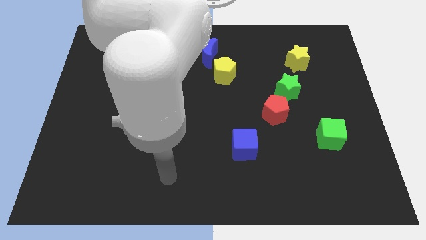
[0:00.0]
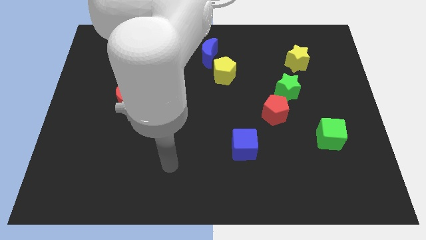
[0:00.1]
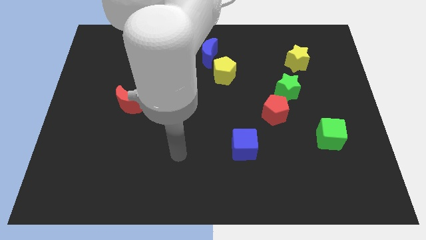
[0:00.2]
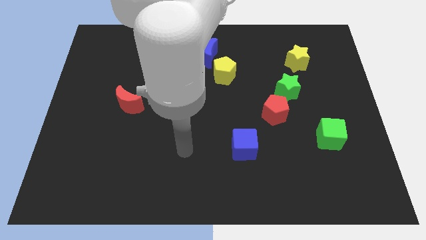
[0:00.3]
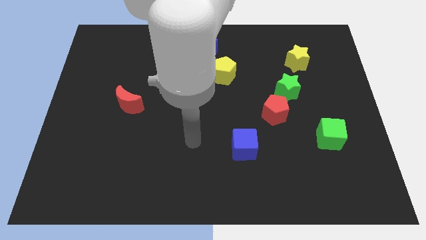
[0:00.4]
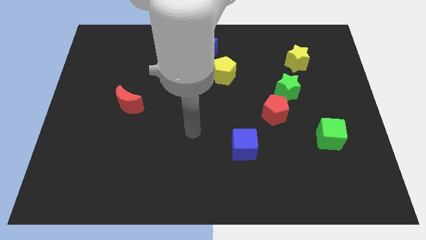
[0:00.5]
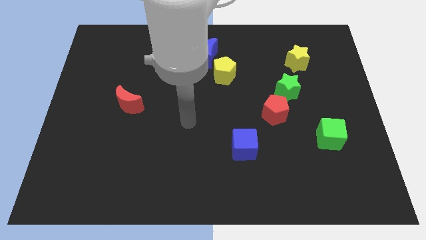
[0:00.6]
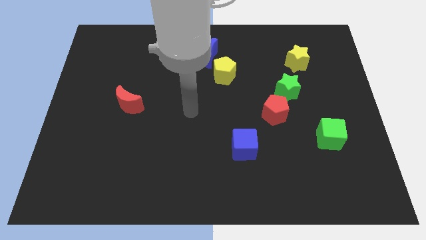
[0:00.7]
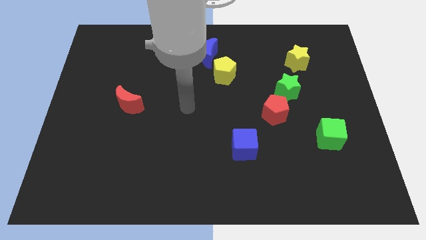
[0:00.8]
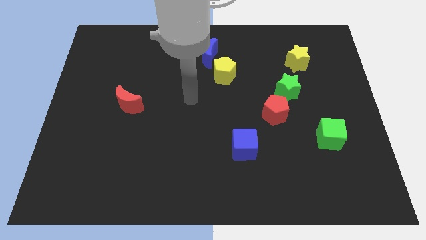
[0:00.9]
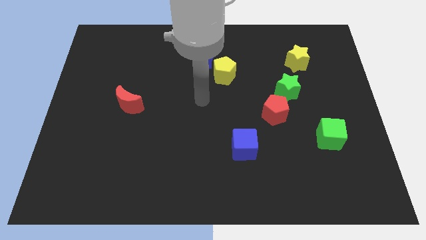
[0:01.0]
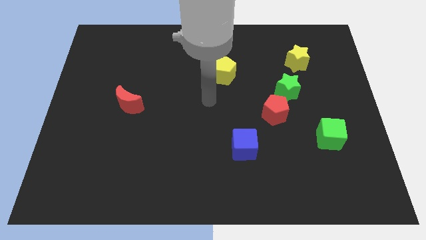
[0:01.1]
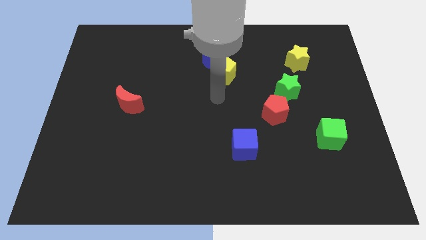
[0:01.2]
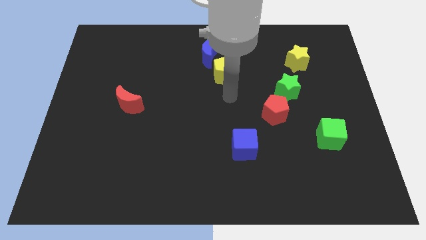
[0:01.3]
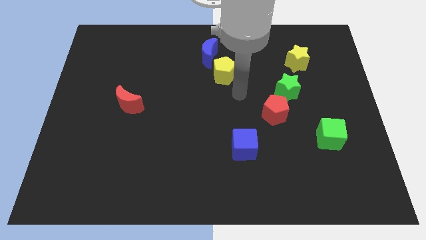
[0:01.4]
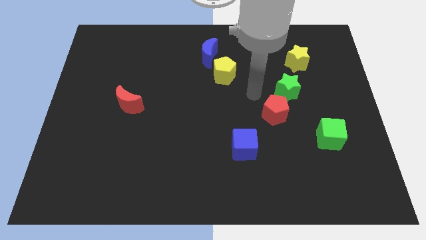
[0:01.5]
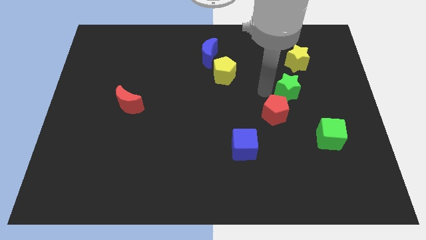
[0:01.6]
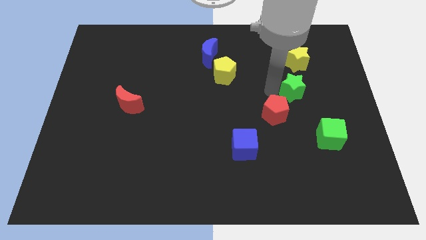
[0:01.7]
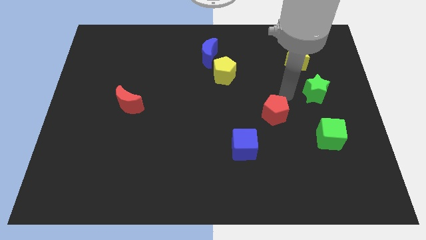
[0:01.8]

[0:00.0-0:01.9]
pull the red pentagon apart from the green star

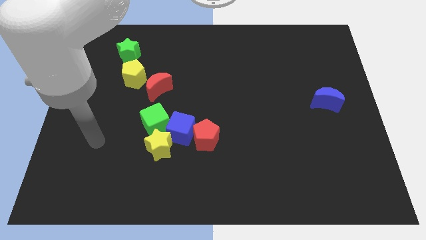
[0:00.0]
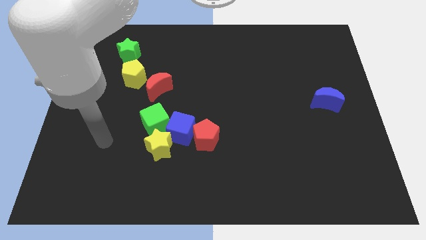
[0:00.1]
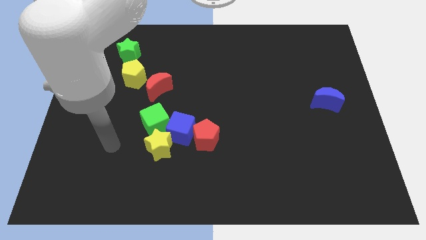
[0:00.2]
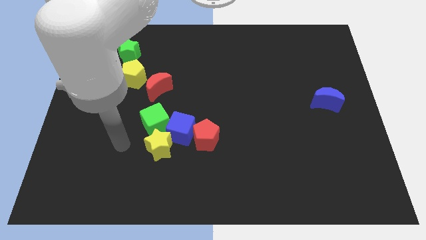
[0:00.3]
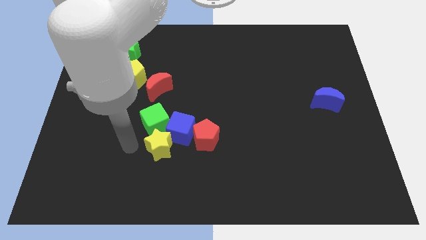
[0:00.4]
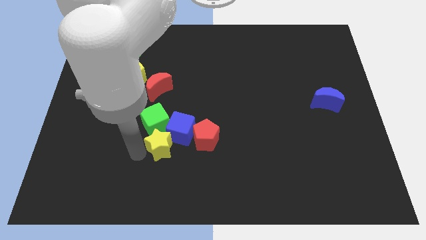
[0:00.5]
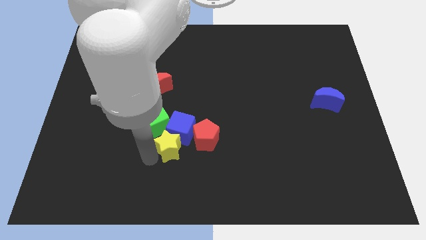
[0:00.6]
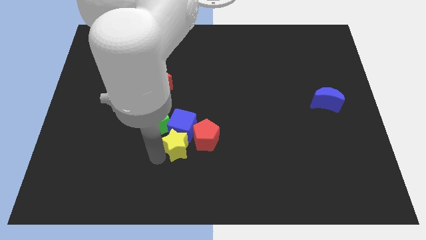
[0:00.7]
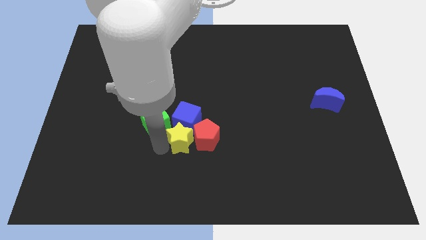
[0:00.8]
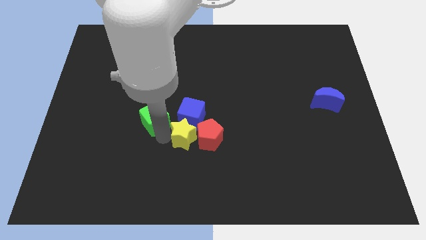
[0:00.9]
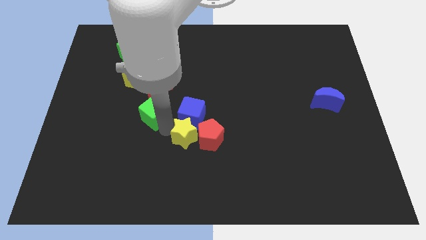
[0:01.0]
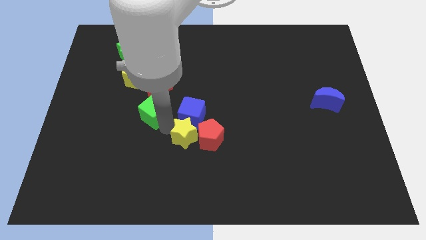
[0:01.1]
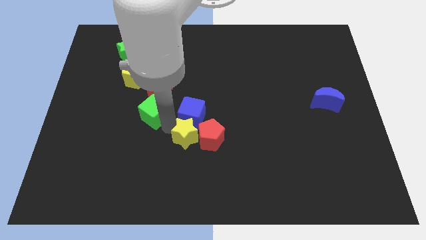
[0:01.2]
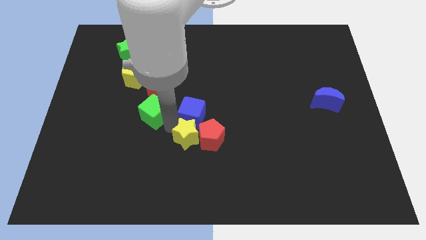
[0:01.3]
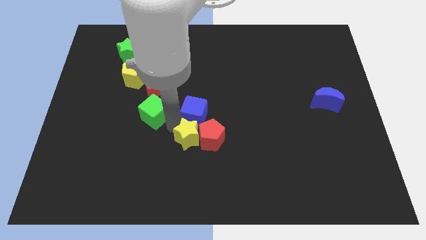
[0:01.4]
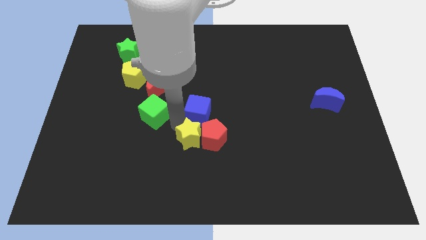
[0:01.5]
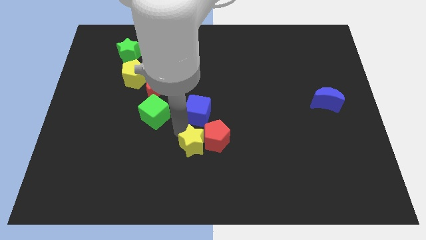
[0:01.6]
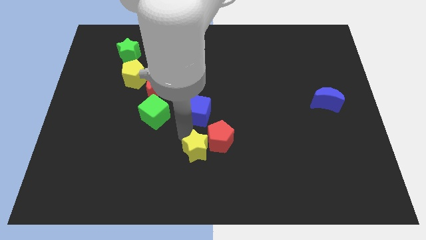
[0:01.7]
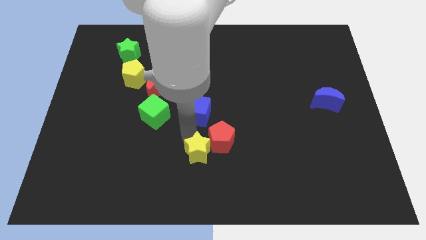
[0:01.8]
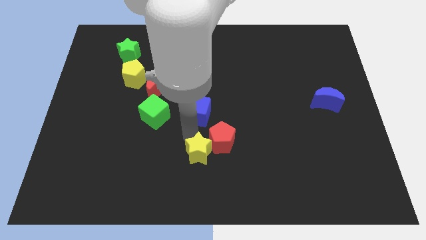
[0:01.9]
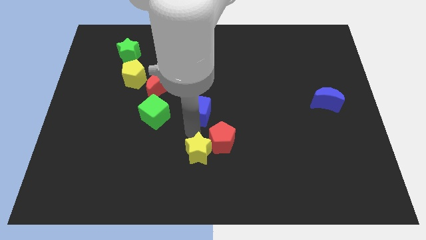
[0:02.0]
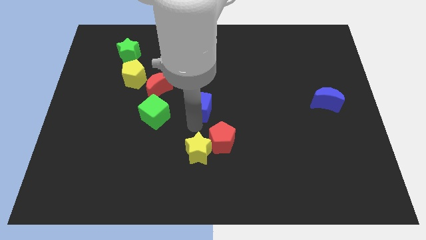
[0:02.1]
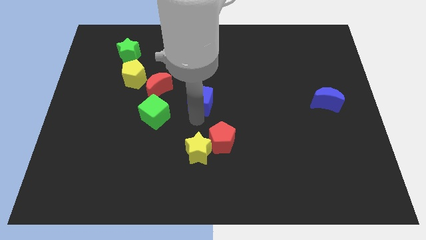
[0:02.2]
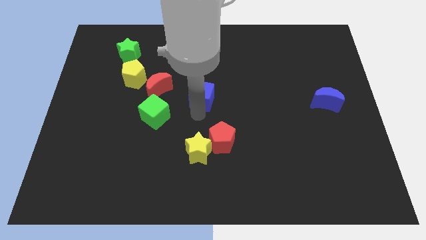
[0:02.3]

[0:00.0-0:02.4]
separate the blue cube from the group of blocks

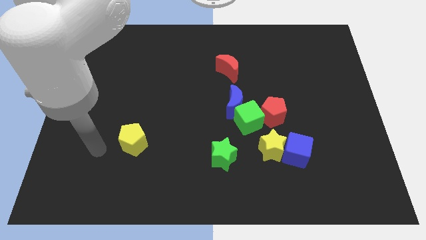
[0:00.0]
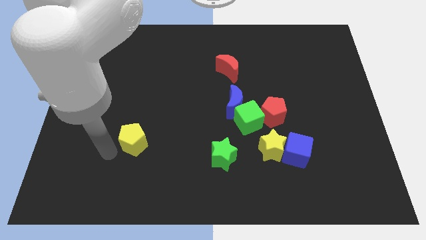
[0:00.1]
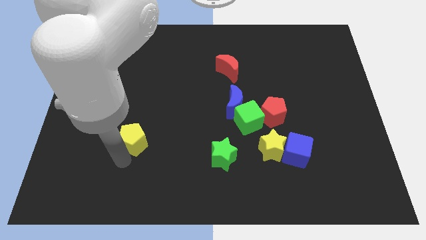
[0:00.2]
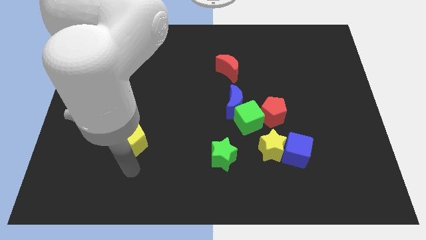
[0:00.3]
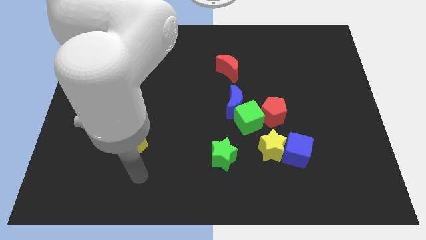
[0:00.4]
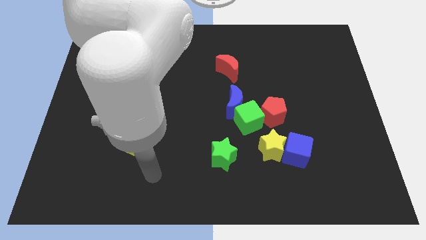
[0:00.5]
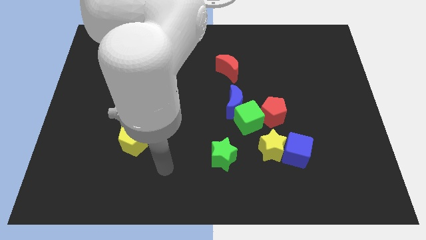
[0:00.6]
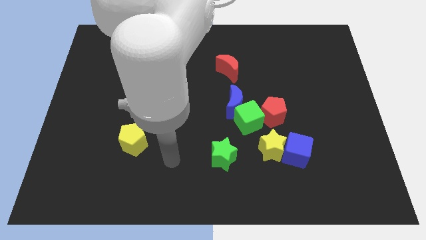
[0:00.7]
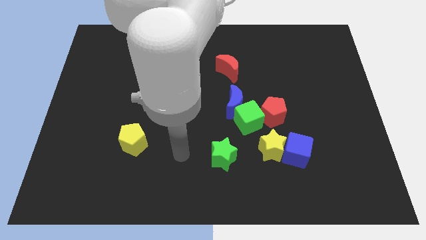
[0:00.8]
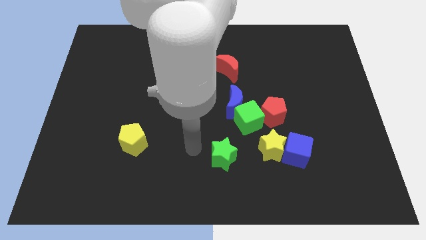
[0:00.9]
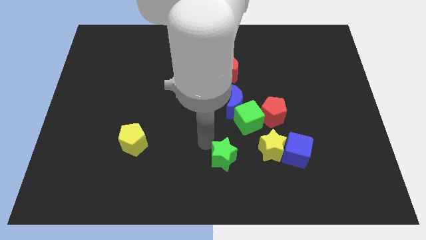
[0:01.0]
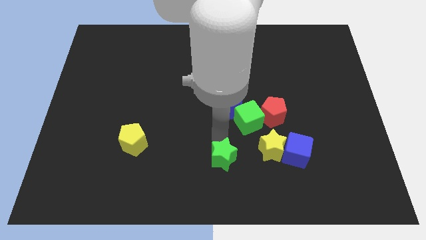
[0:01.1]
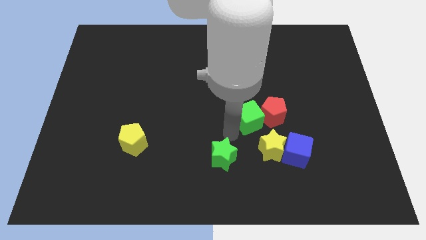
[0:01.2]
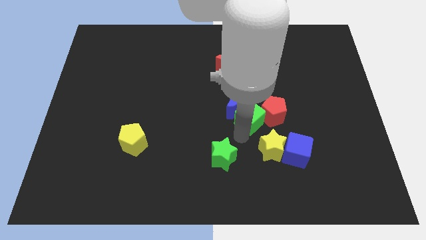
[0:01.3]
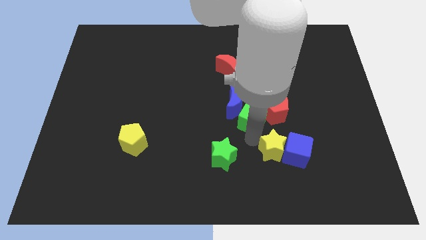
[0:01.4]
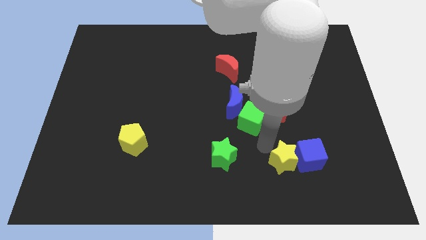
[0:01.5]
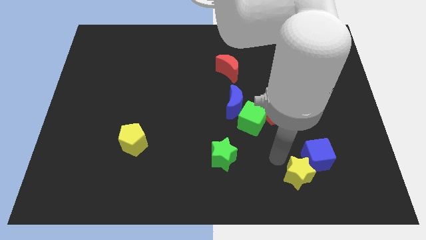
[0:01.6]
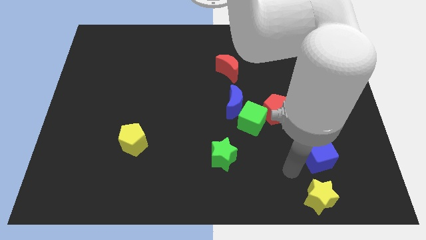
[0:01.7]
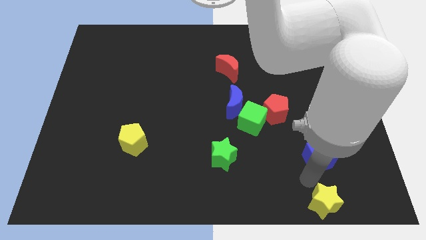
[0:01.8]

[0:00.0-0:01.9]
pull the blue cube apart from the yellow star

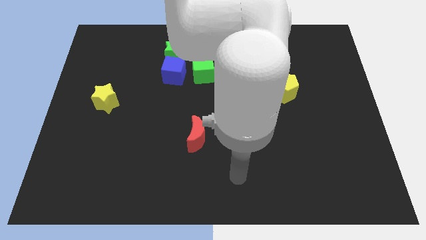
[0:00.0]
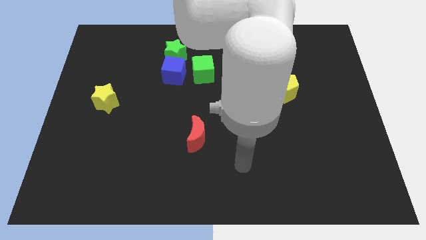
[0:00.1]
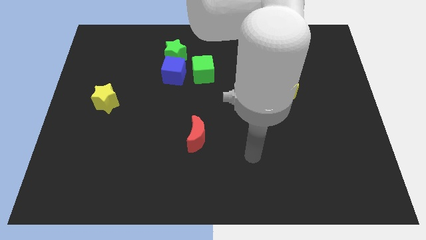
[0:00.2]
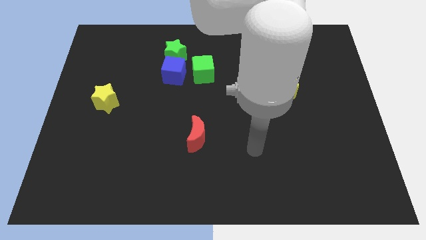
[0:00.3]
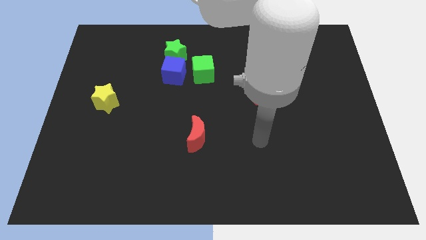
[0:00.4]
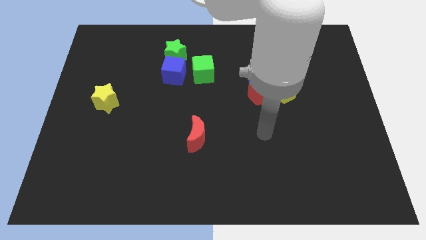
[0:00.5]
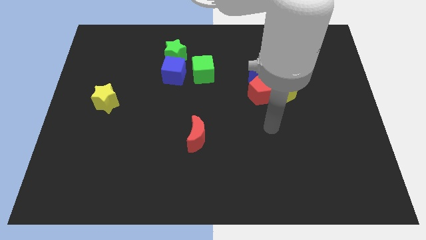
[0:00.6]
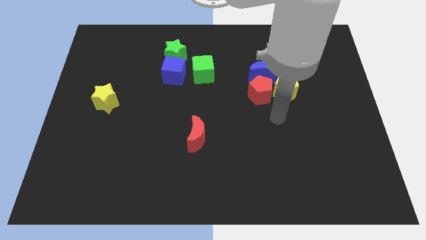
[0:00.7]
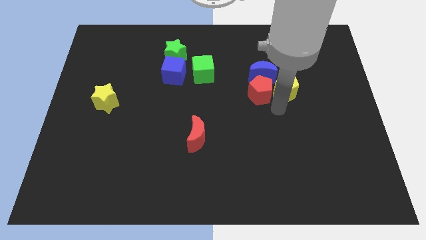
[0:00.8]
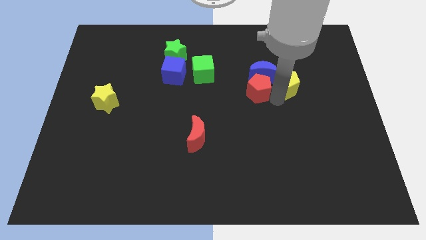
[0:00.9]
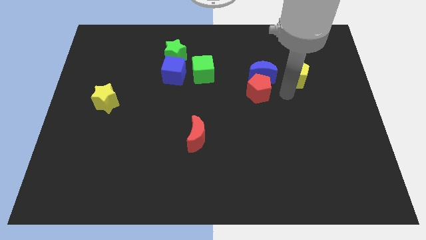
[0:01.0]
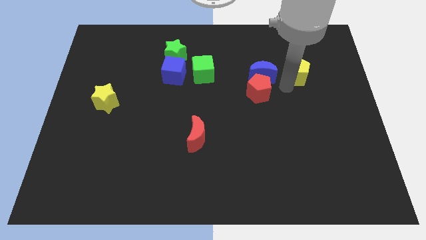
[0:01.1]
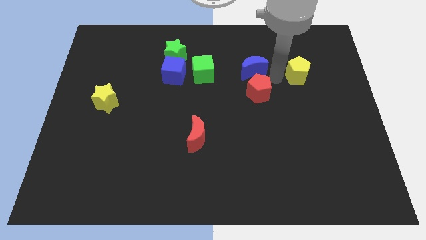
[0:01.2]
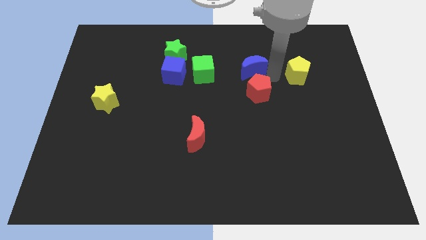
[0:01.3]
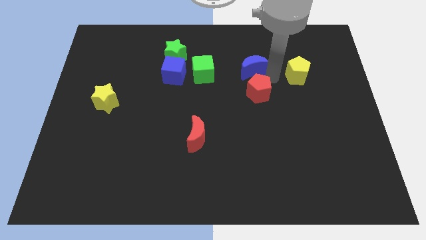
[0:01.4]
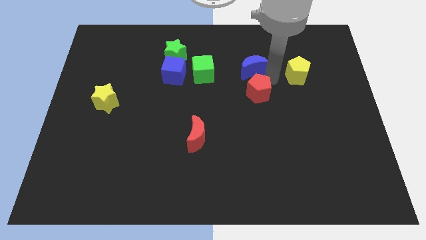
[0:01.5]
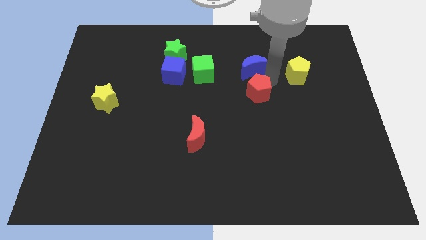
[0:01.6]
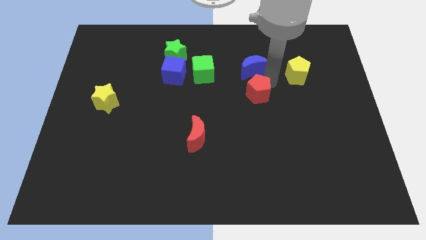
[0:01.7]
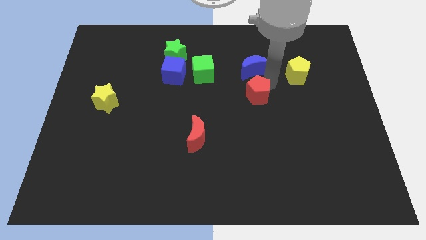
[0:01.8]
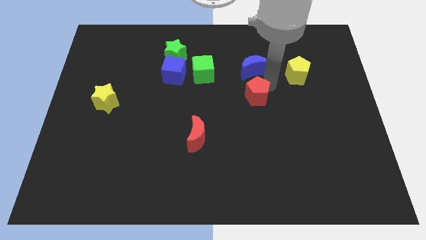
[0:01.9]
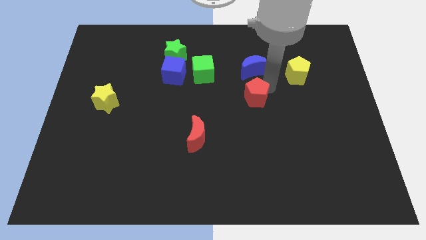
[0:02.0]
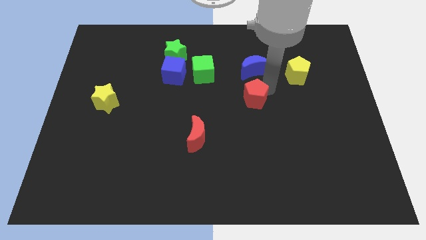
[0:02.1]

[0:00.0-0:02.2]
pull the red pentagon apart from the yellow pentagon and blue moon

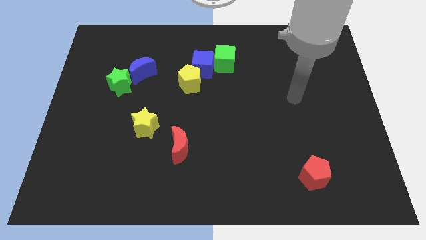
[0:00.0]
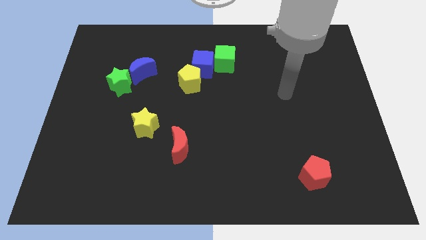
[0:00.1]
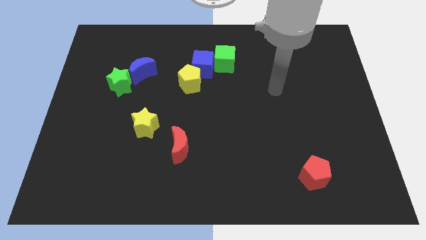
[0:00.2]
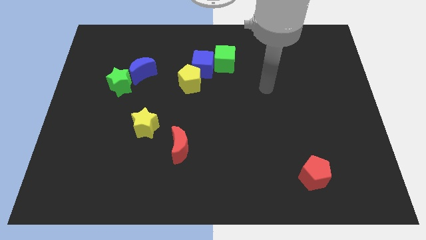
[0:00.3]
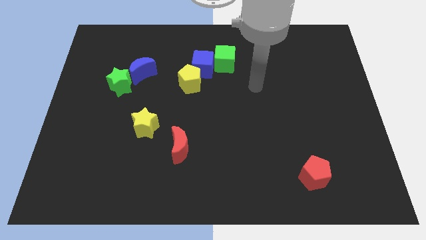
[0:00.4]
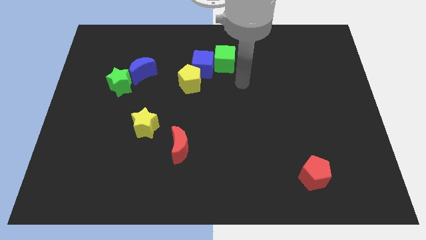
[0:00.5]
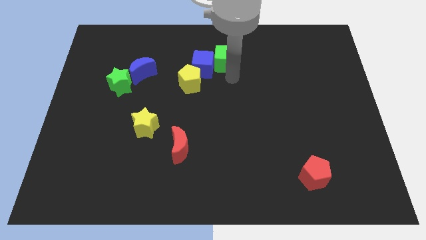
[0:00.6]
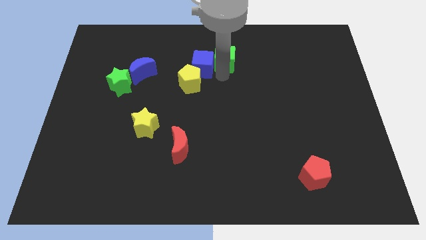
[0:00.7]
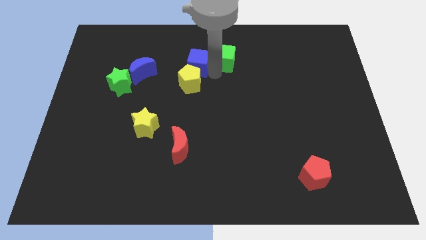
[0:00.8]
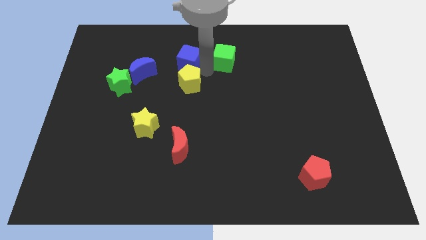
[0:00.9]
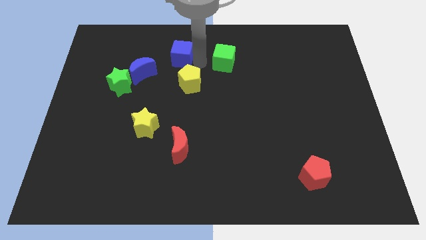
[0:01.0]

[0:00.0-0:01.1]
separate the green cube from the blue cube
